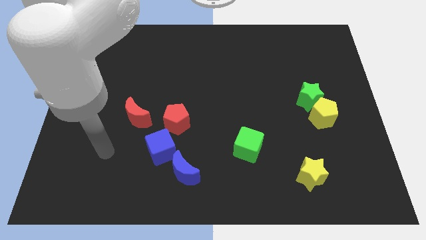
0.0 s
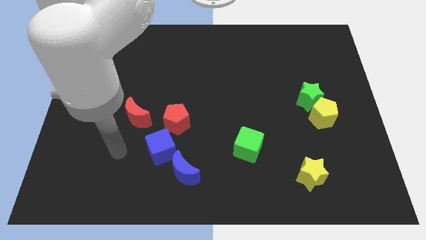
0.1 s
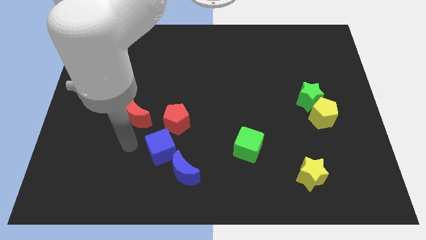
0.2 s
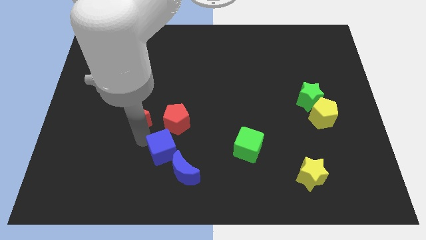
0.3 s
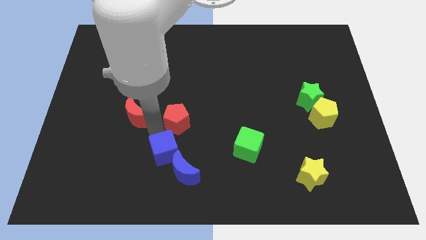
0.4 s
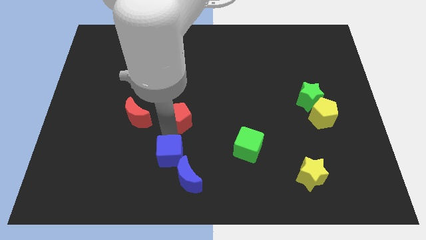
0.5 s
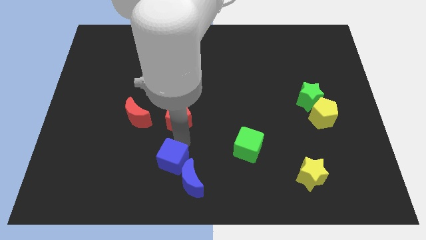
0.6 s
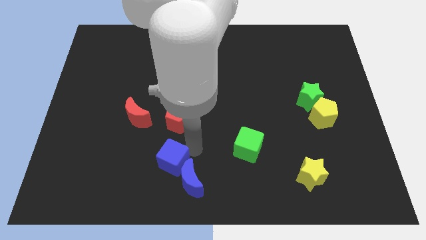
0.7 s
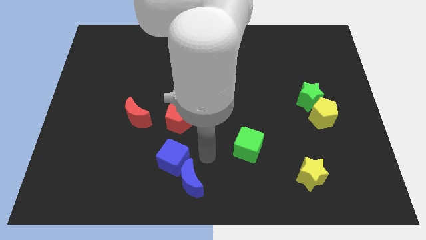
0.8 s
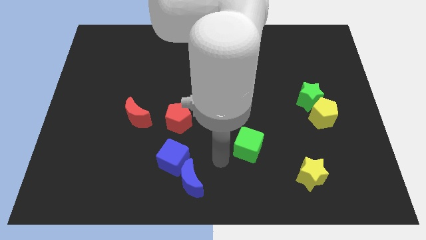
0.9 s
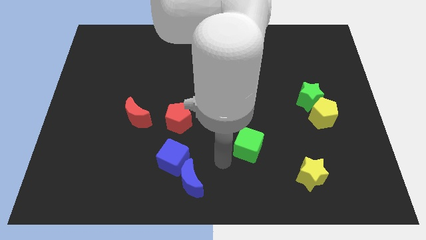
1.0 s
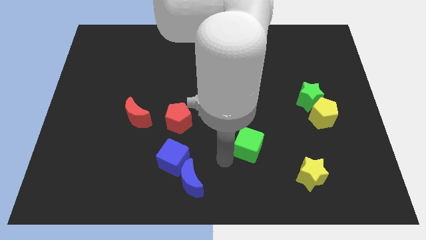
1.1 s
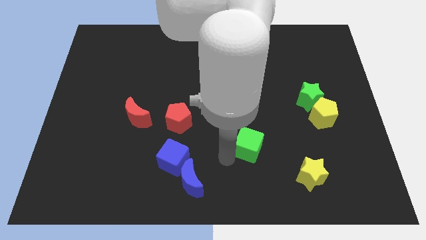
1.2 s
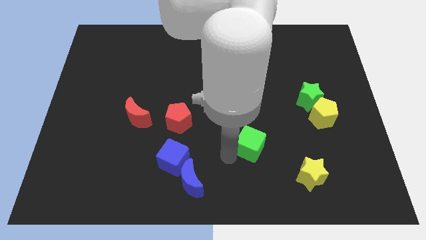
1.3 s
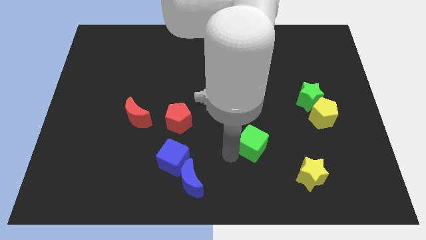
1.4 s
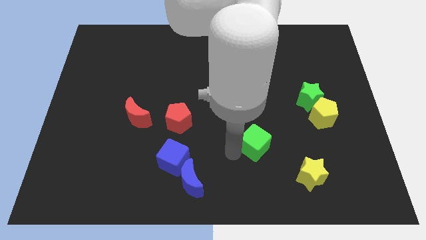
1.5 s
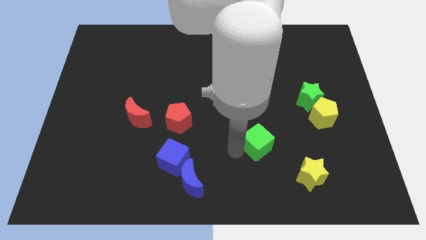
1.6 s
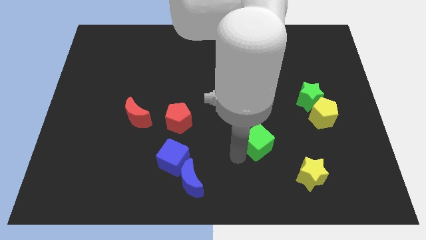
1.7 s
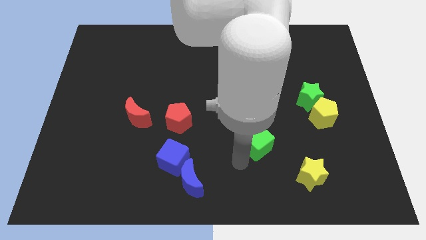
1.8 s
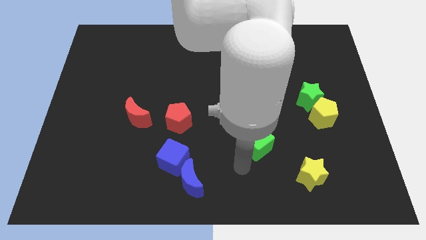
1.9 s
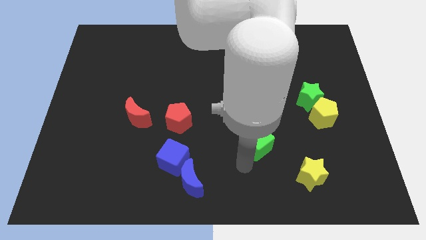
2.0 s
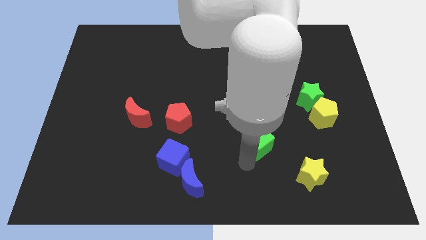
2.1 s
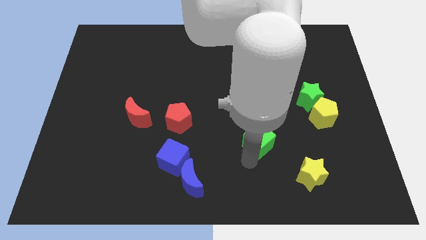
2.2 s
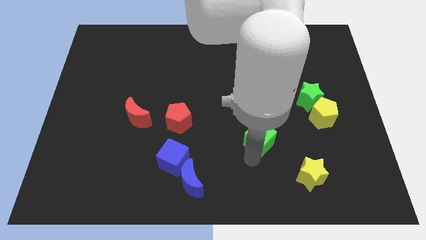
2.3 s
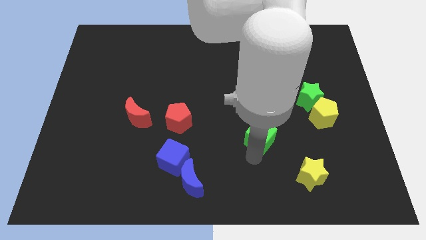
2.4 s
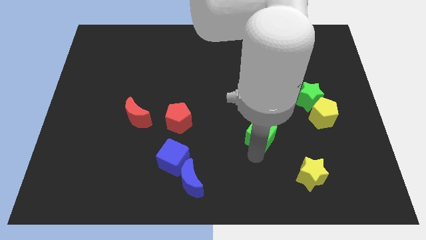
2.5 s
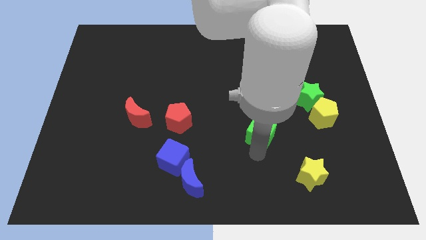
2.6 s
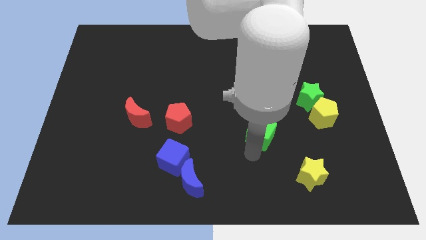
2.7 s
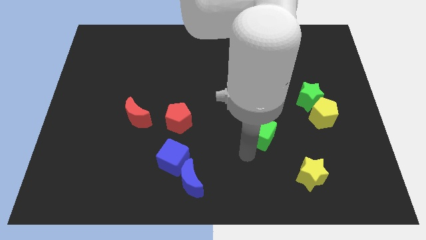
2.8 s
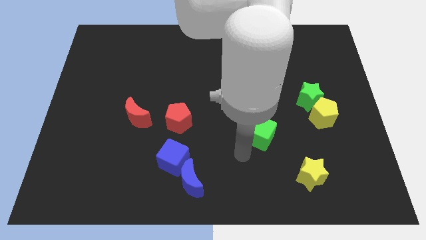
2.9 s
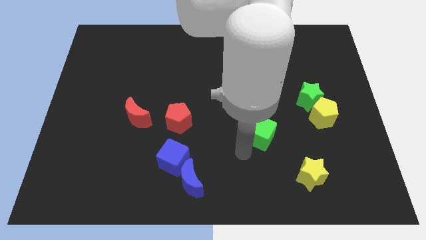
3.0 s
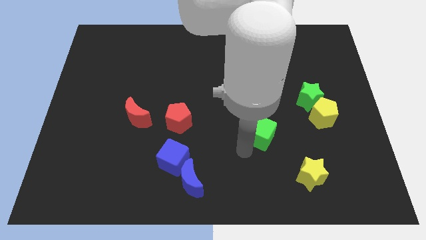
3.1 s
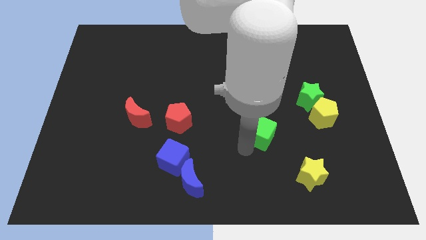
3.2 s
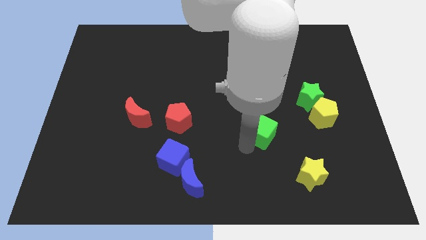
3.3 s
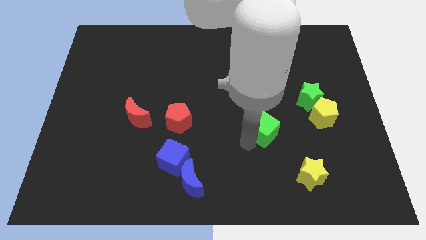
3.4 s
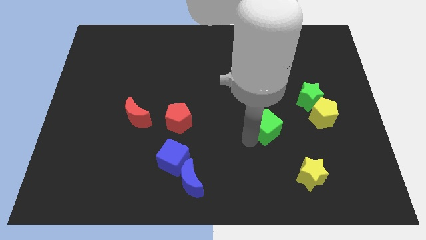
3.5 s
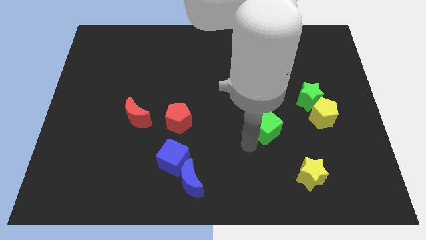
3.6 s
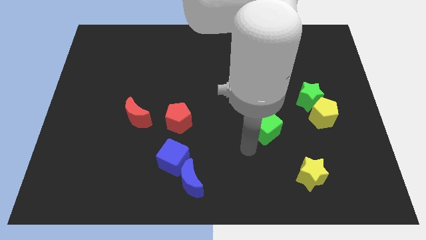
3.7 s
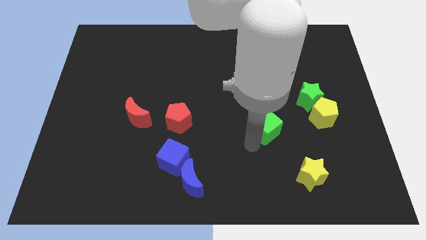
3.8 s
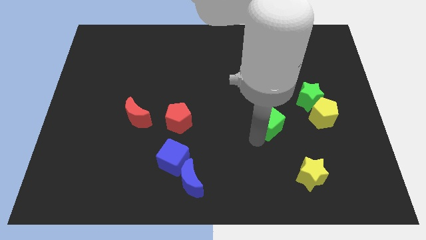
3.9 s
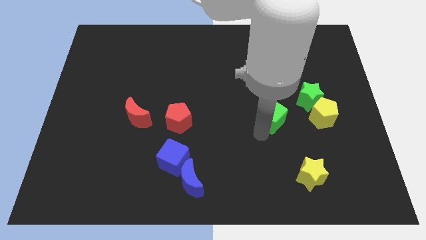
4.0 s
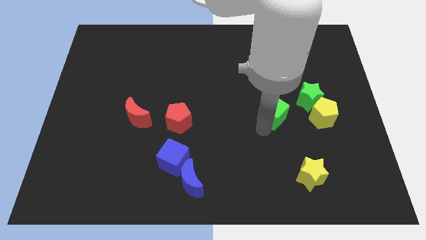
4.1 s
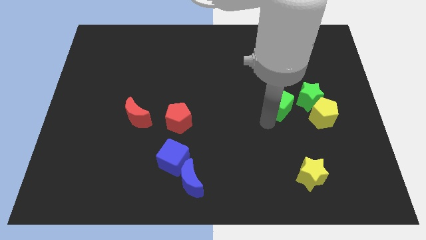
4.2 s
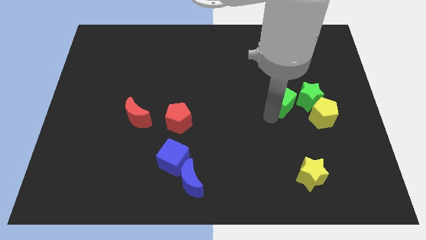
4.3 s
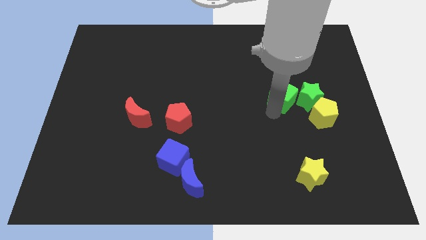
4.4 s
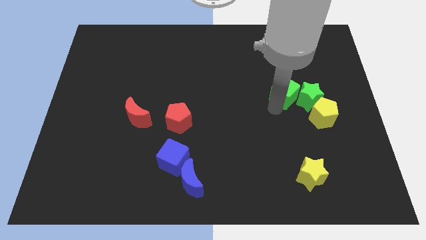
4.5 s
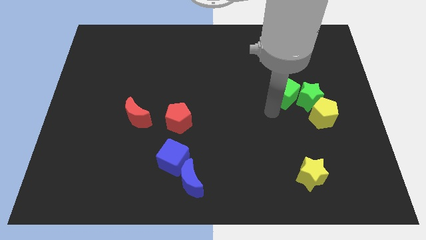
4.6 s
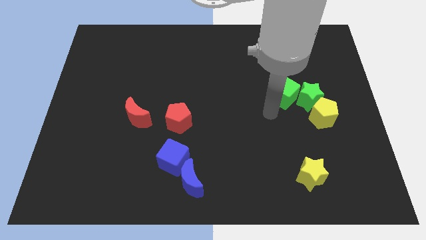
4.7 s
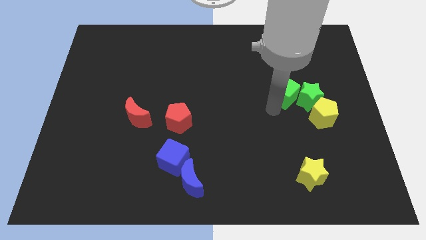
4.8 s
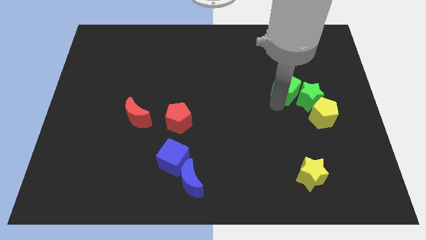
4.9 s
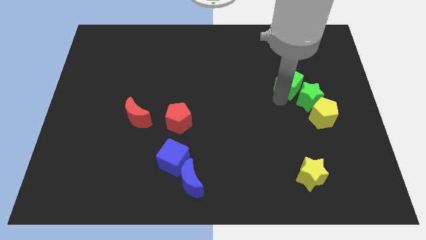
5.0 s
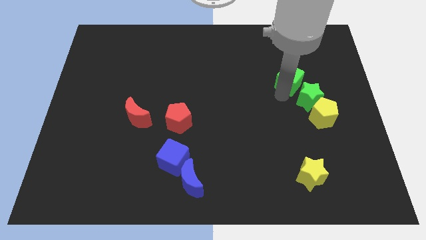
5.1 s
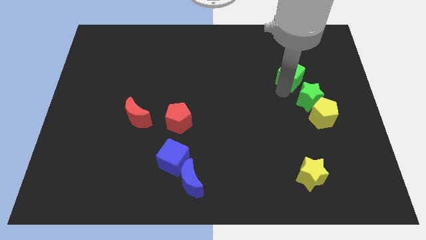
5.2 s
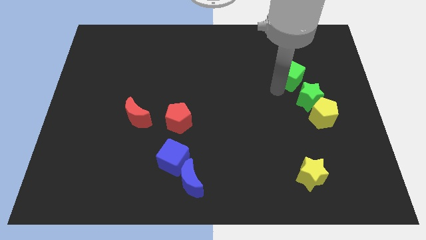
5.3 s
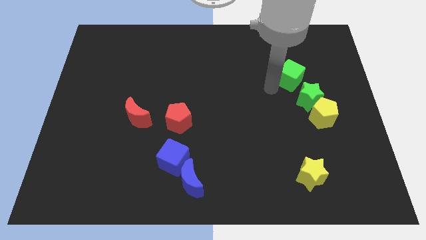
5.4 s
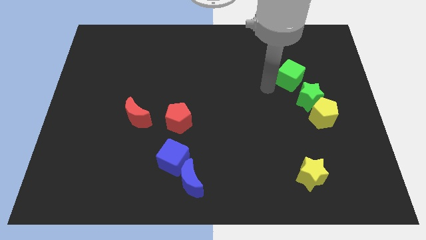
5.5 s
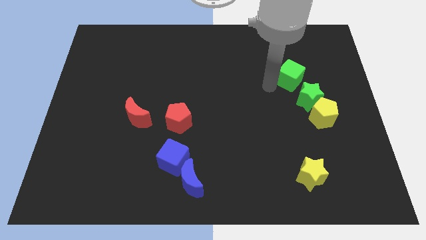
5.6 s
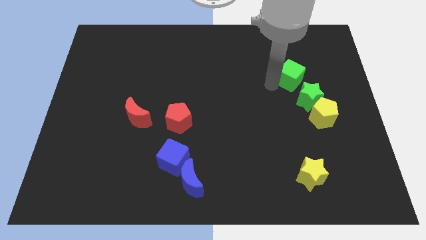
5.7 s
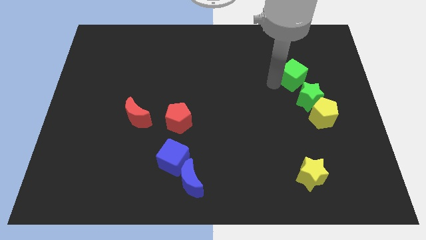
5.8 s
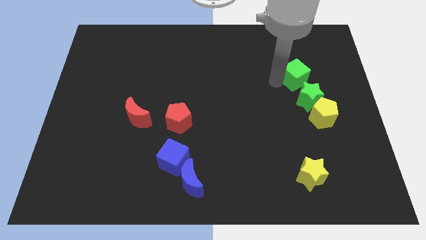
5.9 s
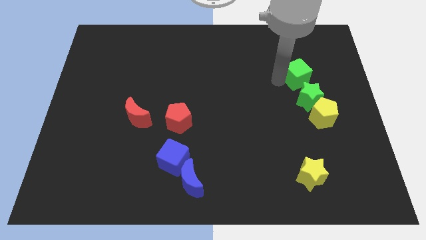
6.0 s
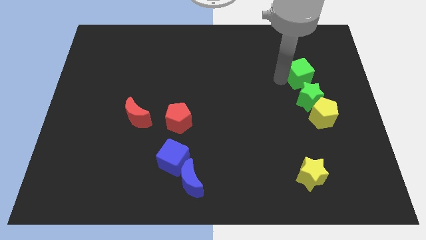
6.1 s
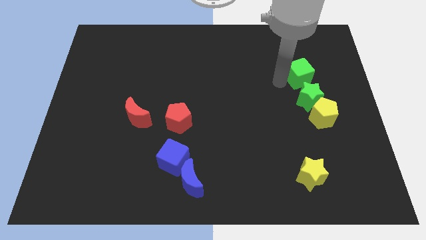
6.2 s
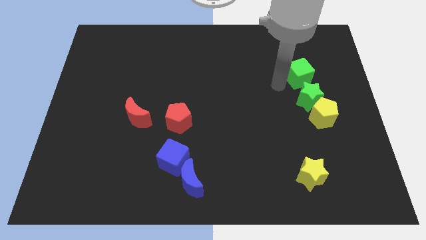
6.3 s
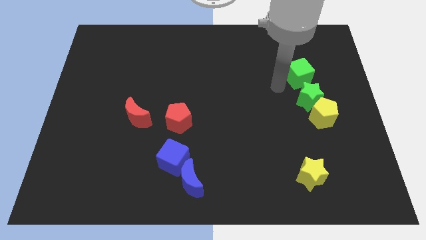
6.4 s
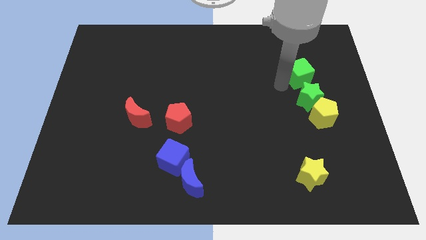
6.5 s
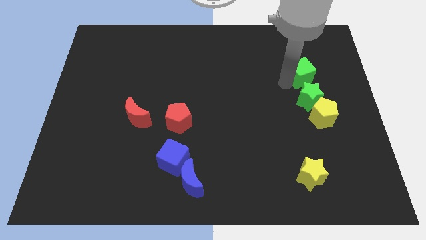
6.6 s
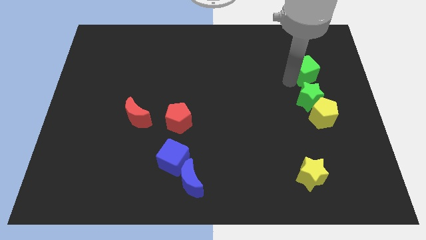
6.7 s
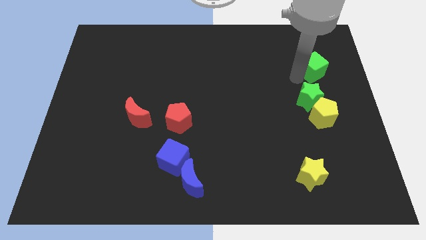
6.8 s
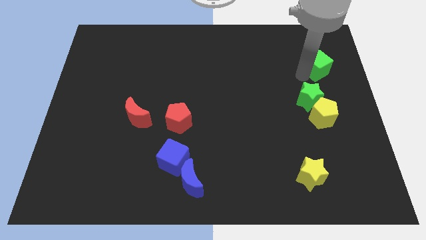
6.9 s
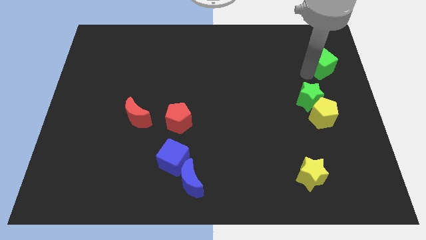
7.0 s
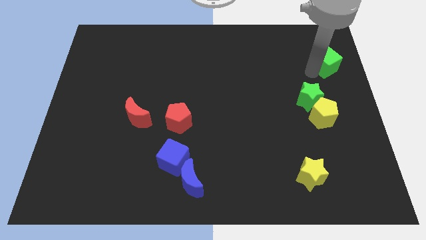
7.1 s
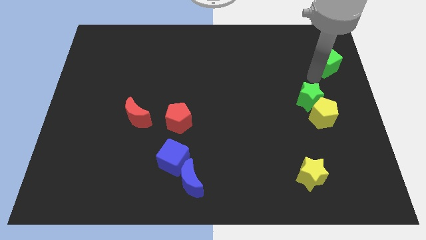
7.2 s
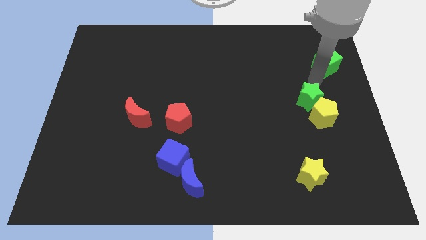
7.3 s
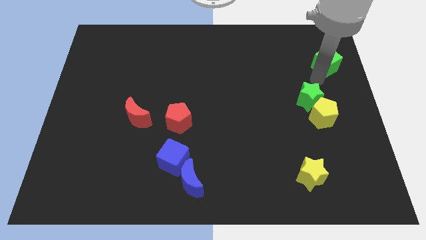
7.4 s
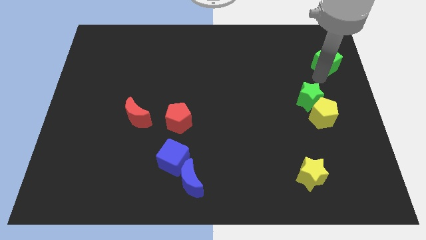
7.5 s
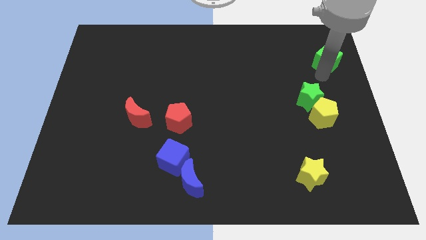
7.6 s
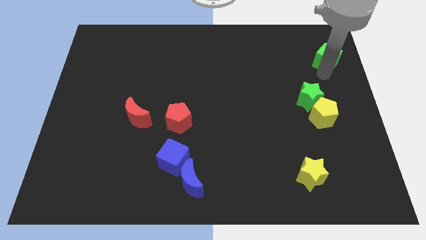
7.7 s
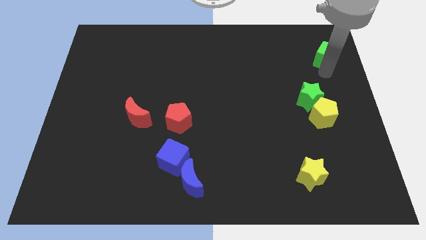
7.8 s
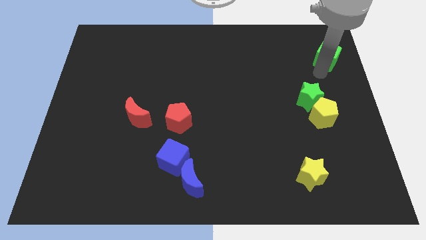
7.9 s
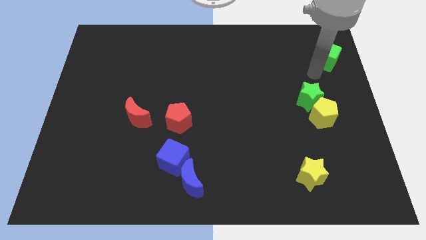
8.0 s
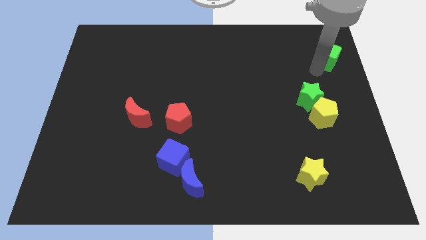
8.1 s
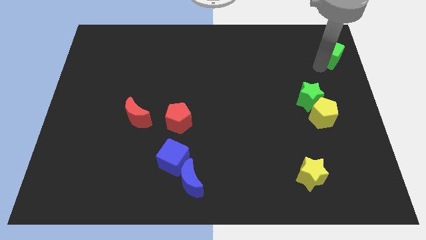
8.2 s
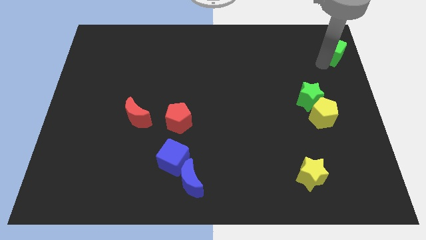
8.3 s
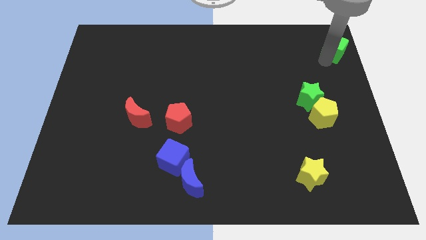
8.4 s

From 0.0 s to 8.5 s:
put the green cube to the upper right corner
